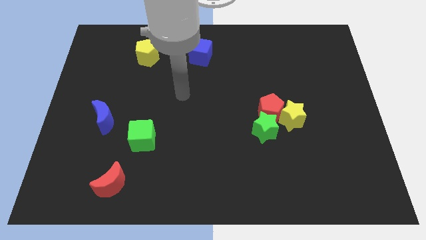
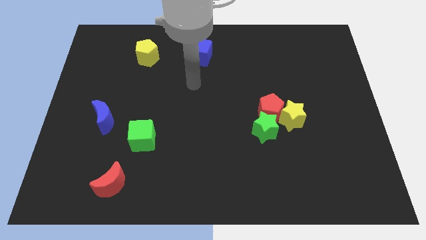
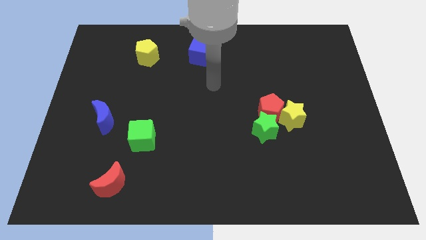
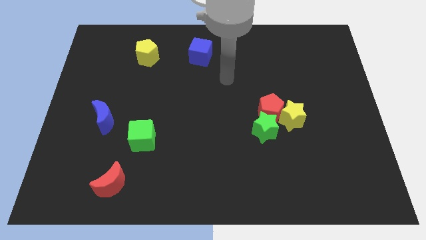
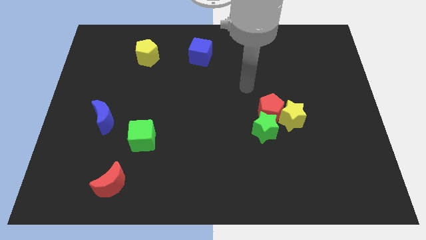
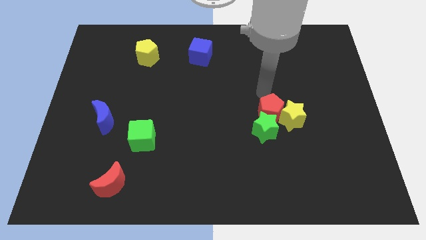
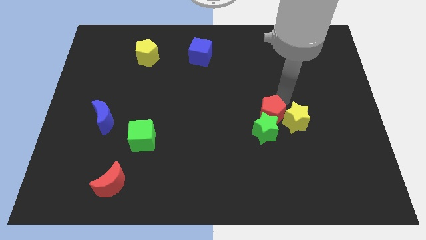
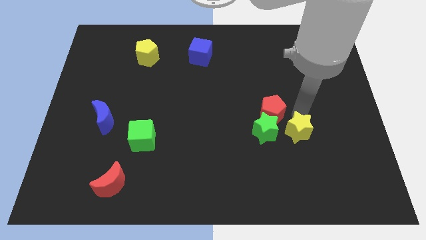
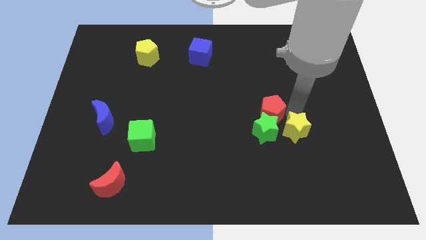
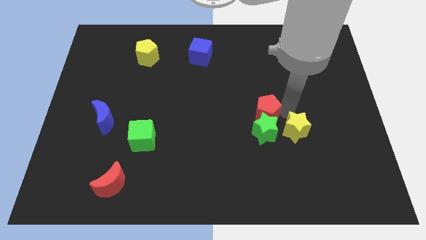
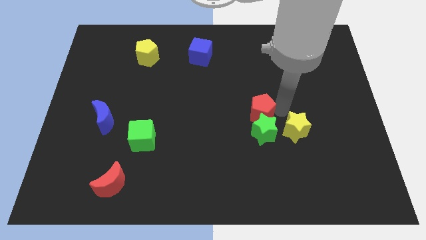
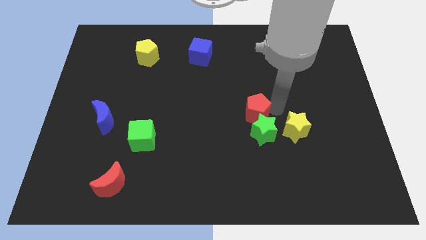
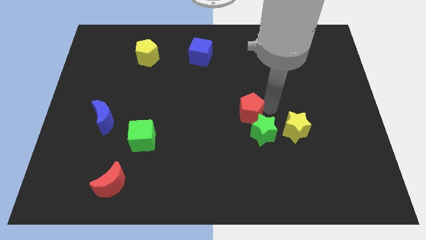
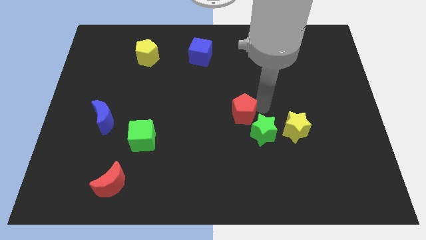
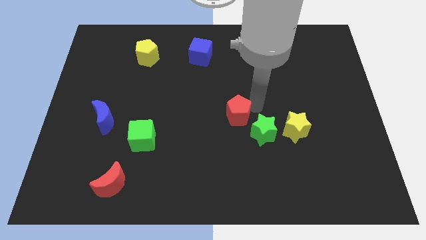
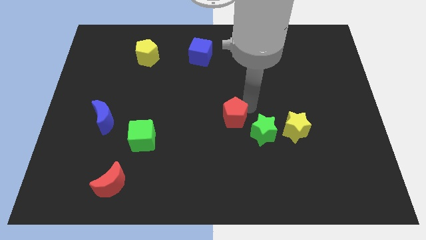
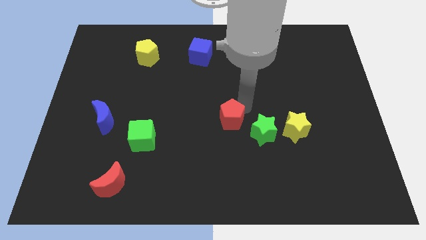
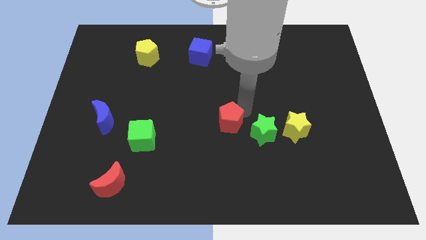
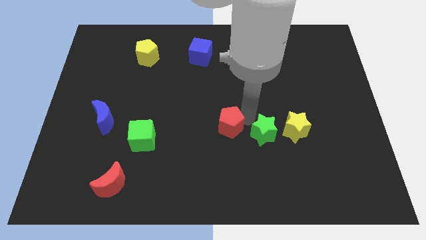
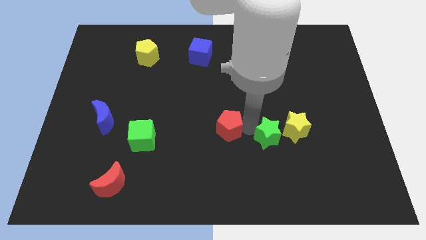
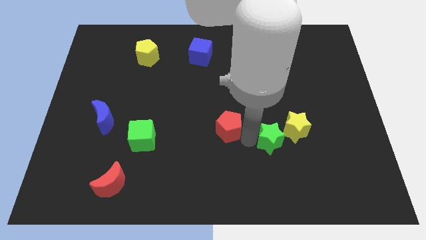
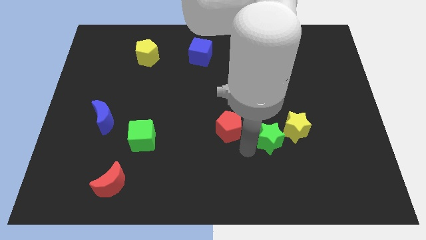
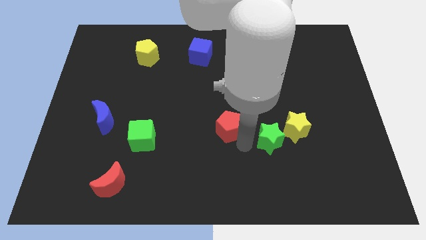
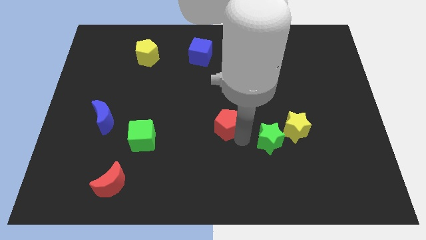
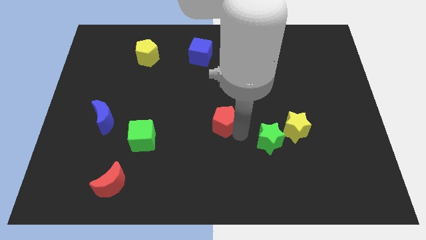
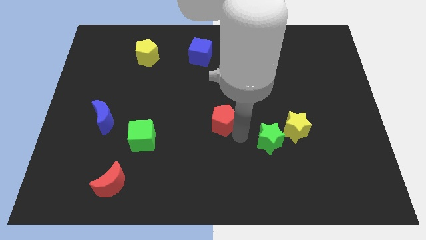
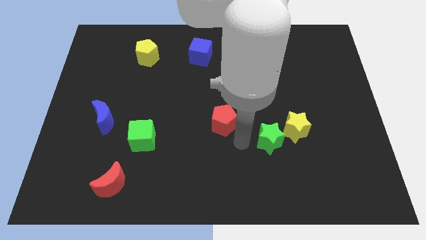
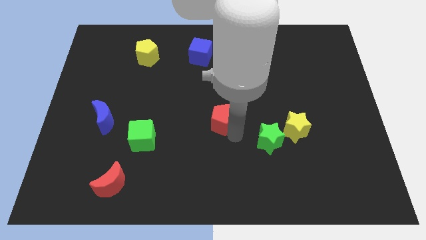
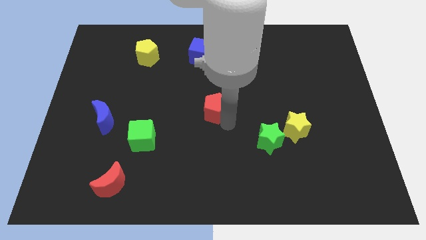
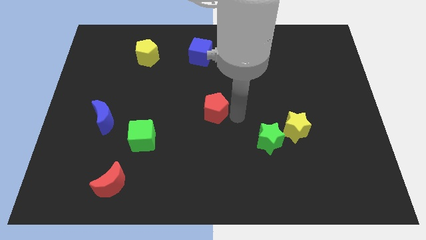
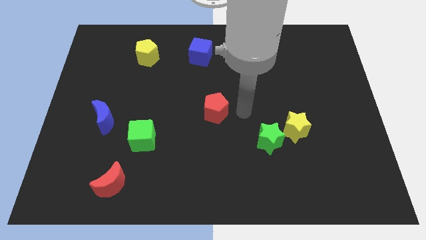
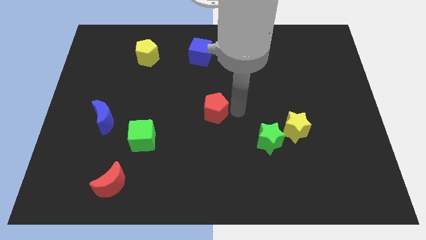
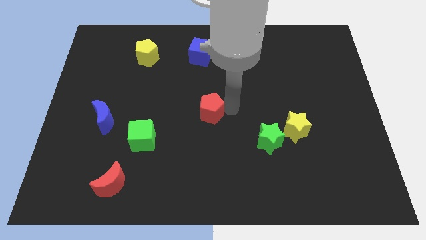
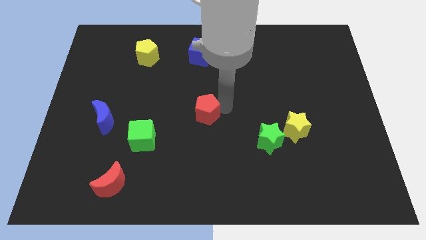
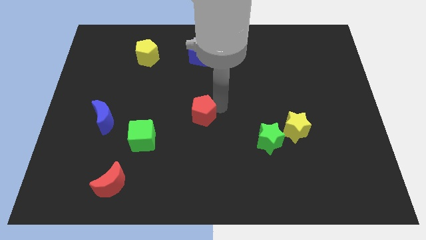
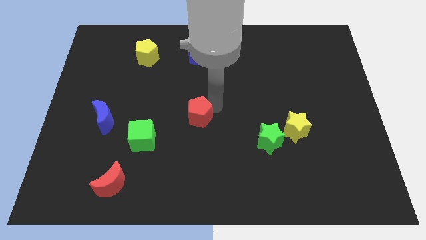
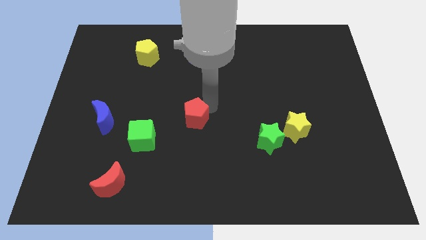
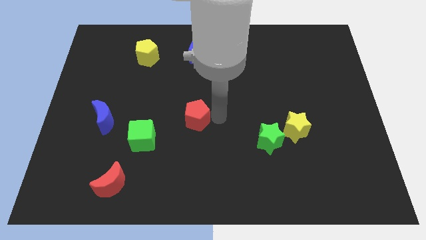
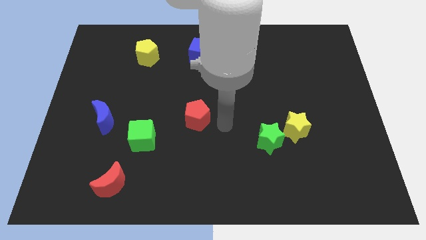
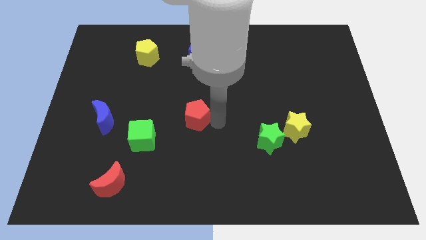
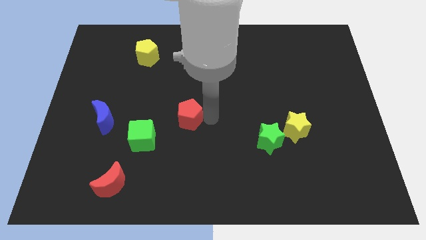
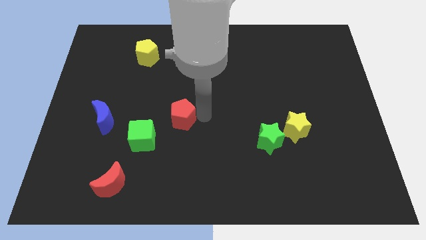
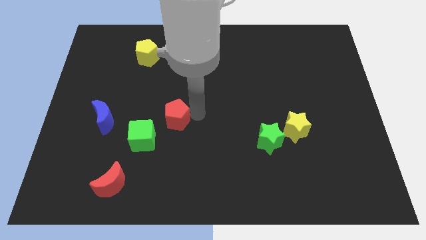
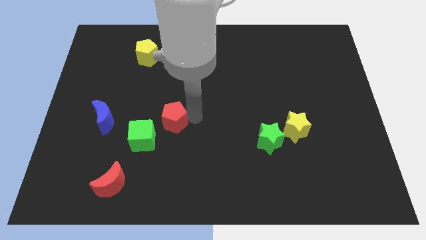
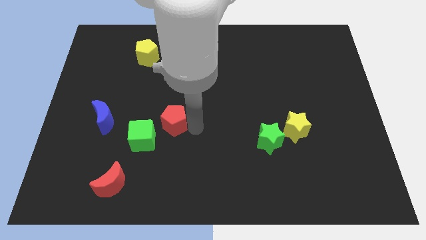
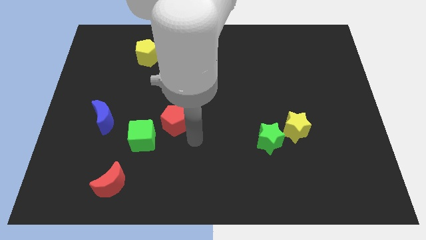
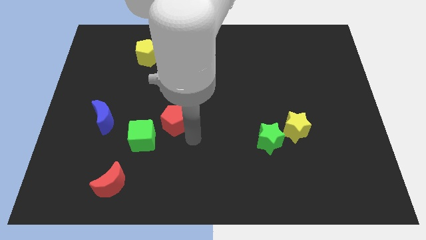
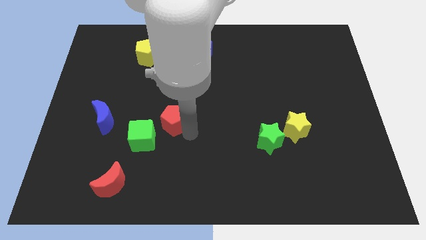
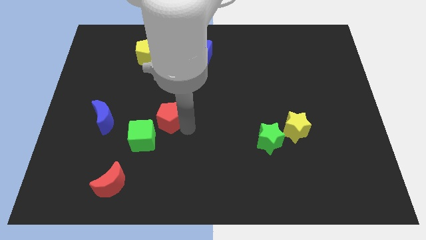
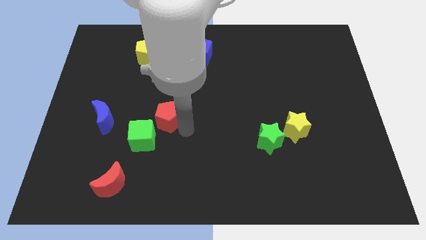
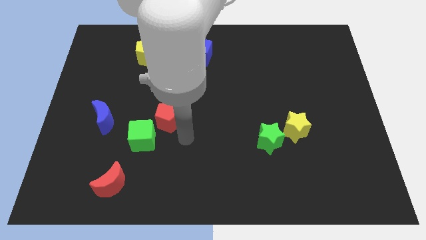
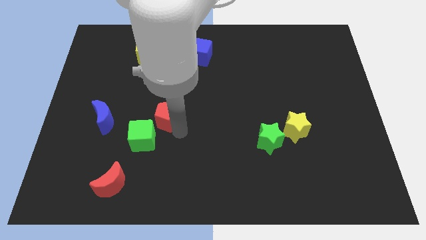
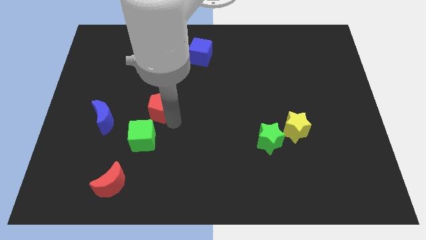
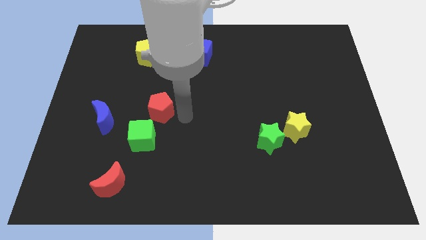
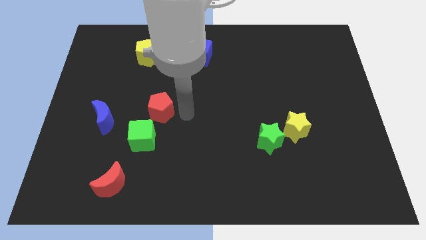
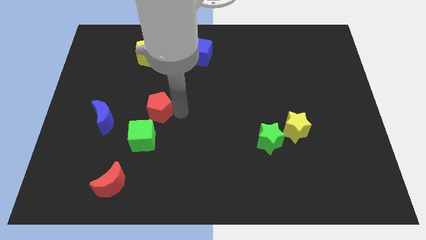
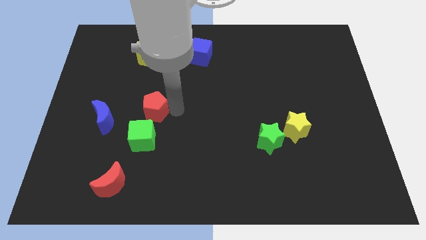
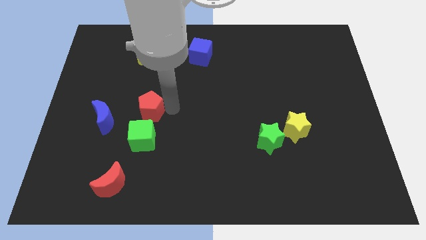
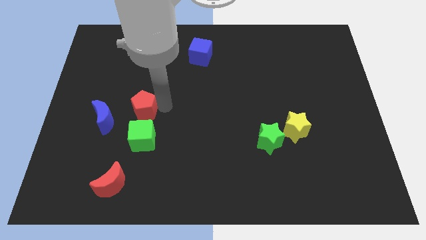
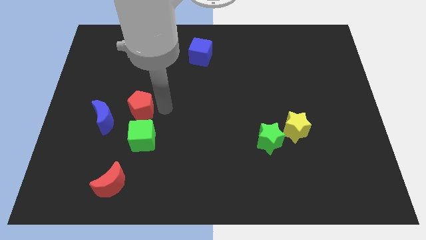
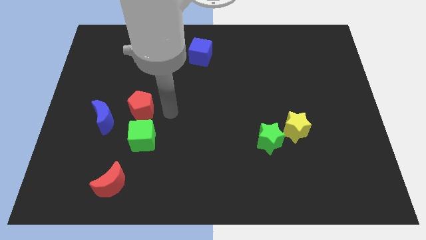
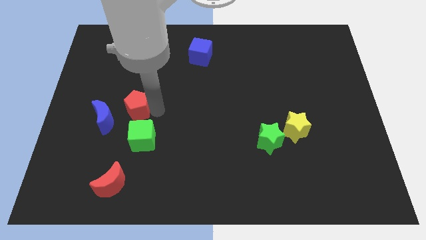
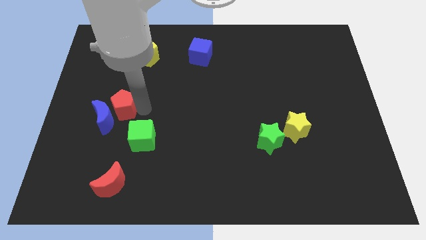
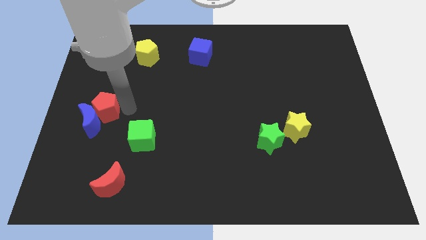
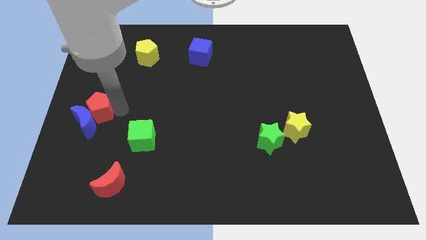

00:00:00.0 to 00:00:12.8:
put the red pentagon to the left side of the board
